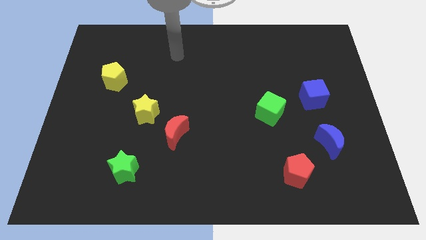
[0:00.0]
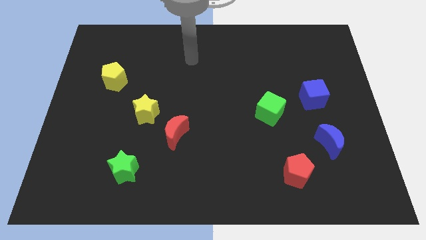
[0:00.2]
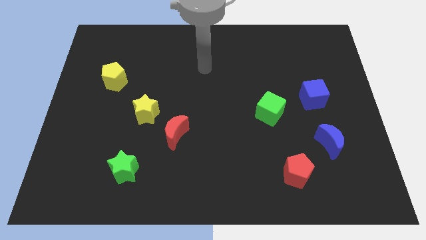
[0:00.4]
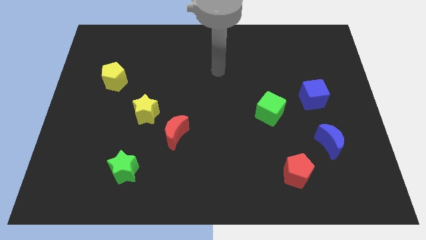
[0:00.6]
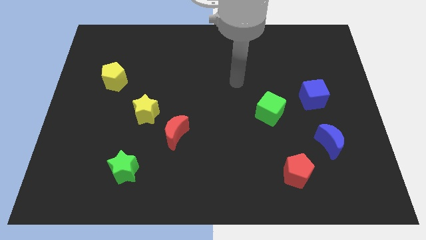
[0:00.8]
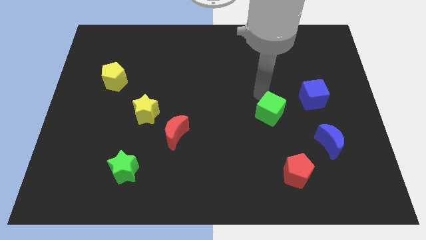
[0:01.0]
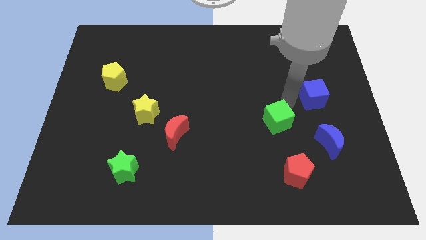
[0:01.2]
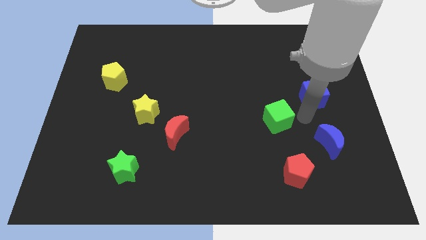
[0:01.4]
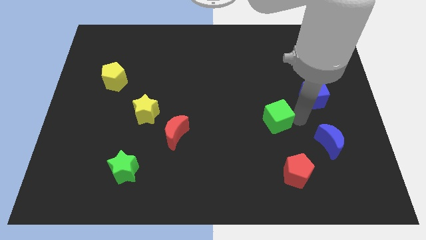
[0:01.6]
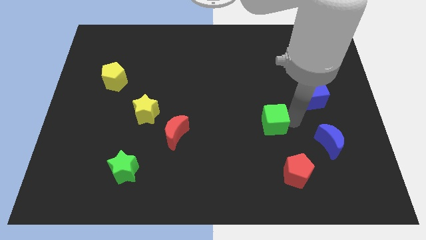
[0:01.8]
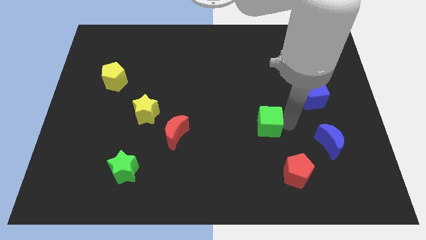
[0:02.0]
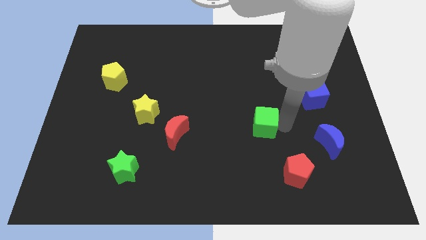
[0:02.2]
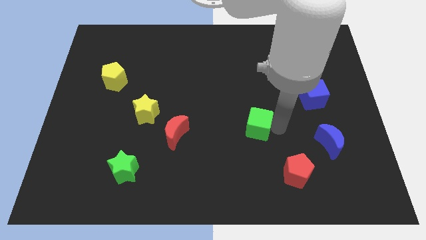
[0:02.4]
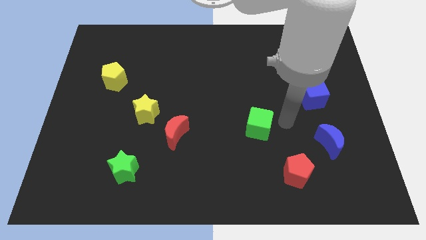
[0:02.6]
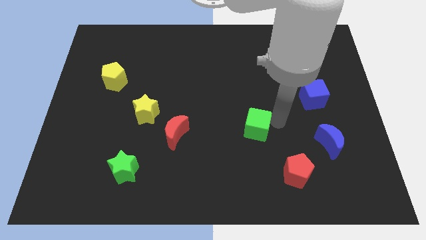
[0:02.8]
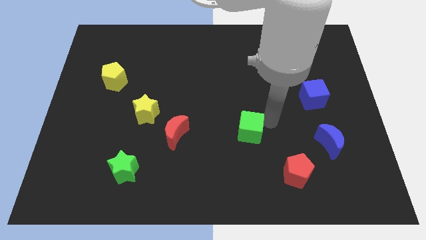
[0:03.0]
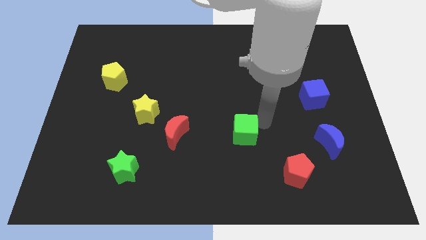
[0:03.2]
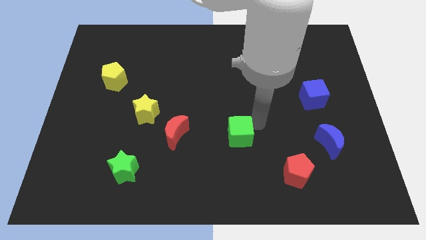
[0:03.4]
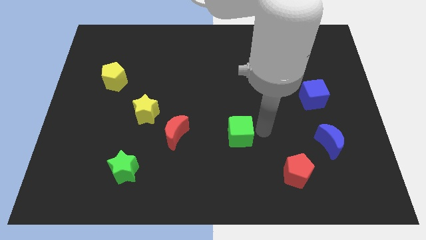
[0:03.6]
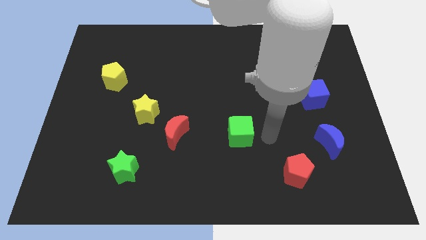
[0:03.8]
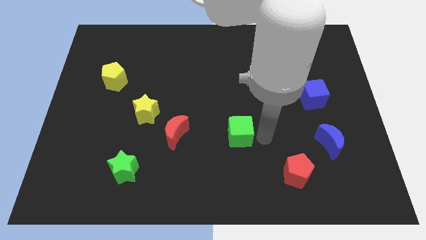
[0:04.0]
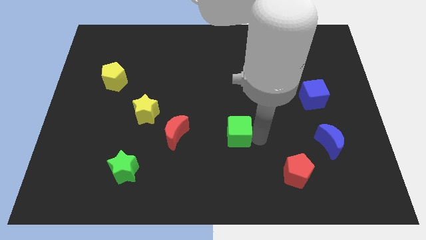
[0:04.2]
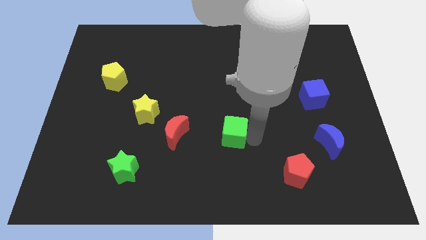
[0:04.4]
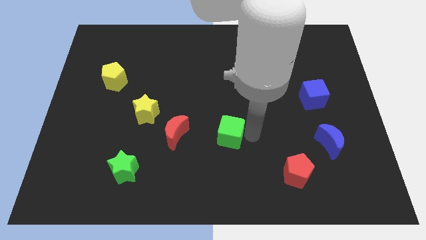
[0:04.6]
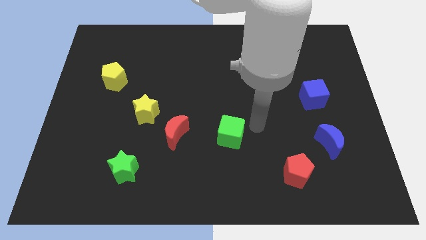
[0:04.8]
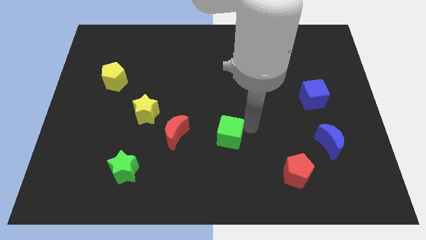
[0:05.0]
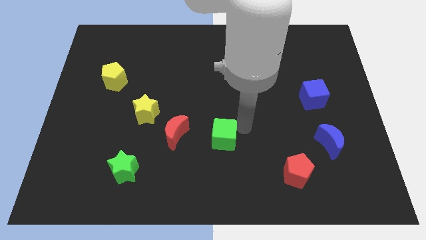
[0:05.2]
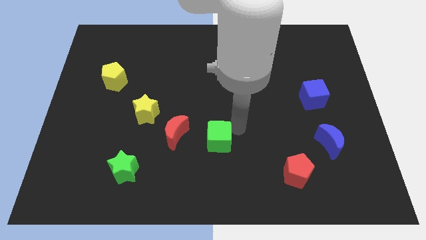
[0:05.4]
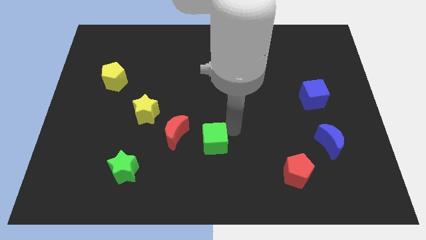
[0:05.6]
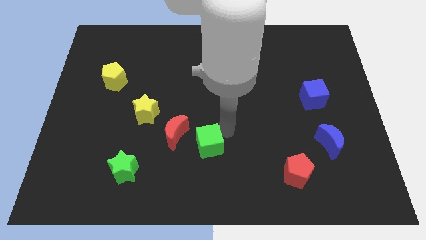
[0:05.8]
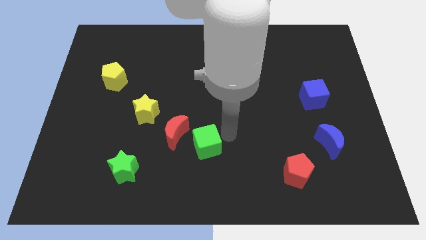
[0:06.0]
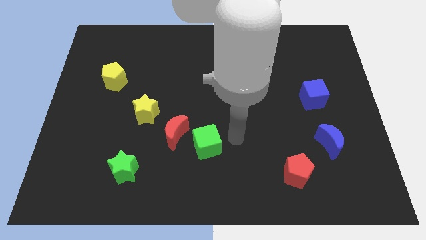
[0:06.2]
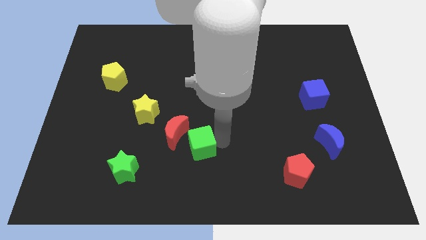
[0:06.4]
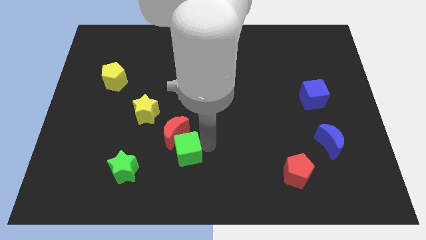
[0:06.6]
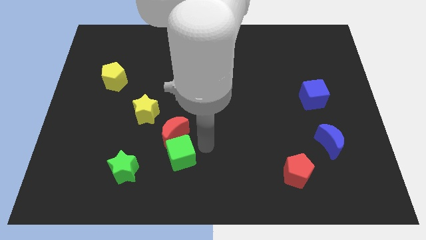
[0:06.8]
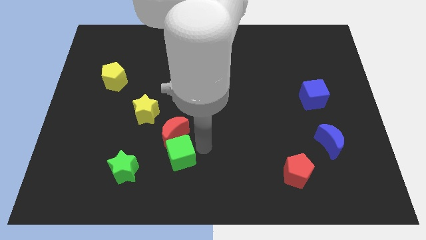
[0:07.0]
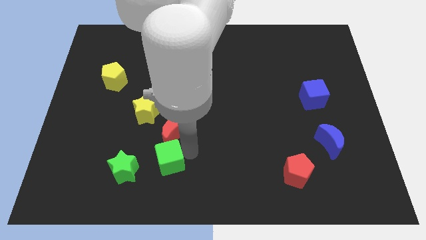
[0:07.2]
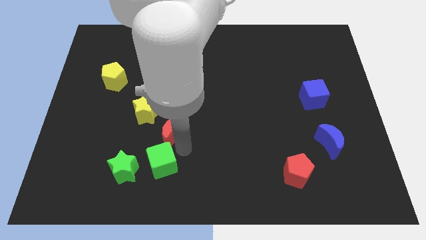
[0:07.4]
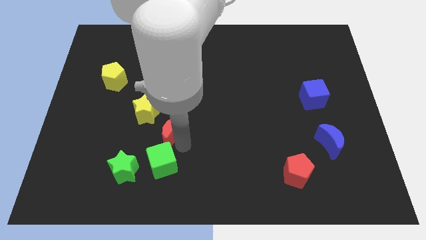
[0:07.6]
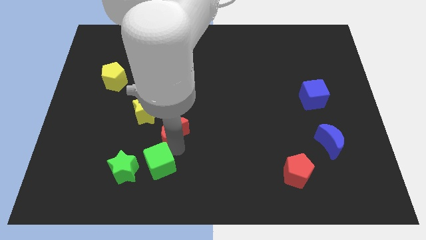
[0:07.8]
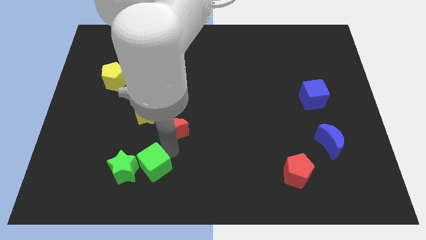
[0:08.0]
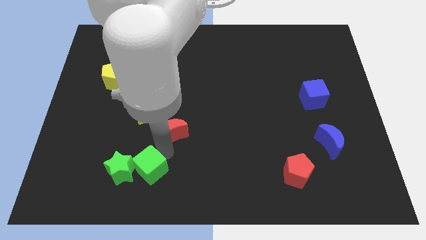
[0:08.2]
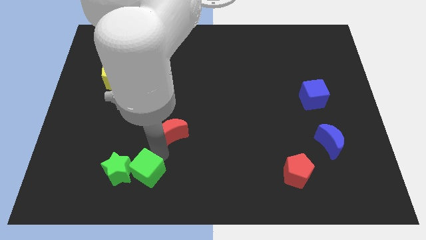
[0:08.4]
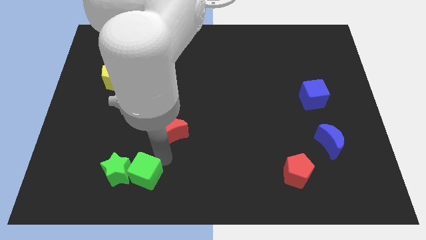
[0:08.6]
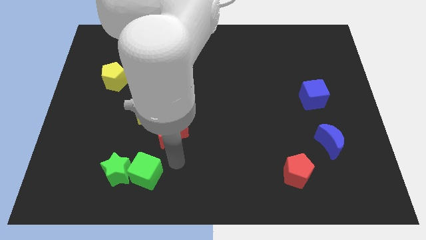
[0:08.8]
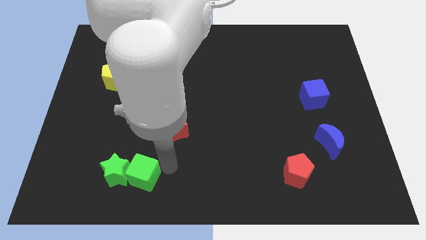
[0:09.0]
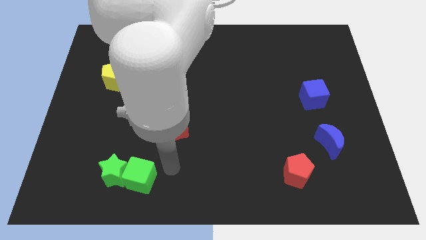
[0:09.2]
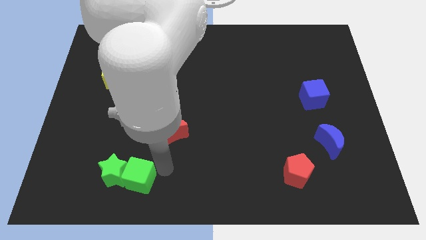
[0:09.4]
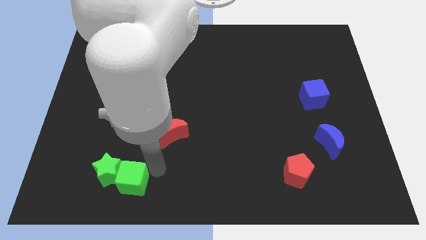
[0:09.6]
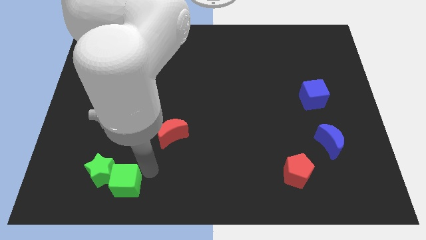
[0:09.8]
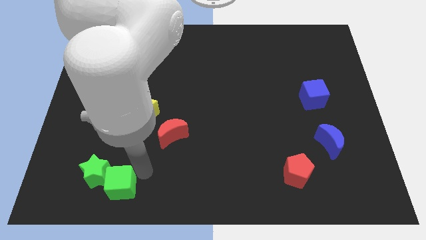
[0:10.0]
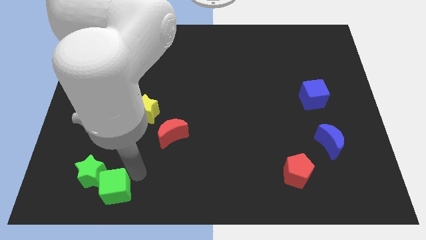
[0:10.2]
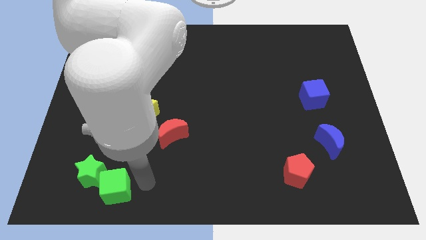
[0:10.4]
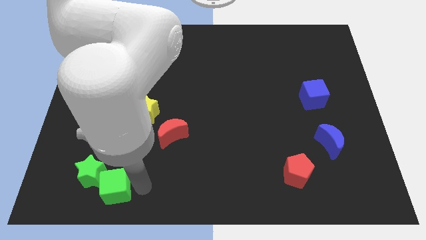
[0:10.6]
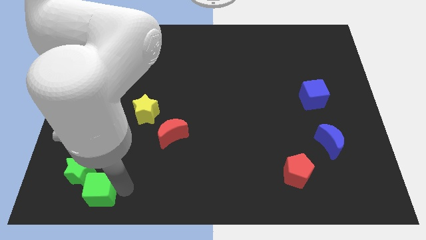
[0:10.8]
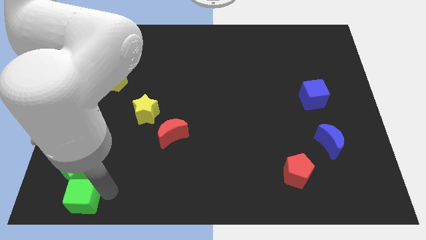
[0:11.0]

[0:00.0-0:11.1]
push the green cube to the bottom left corner
